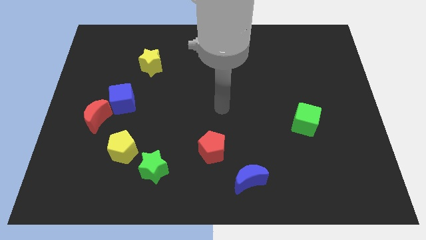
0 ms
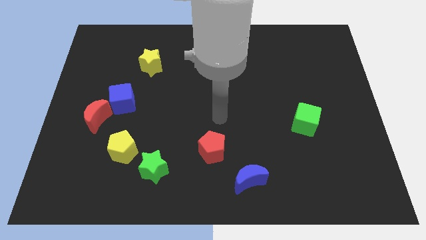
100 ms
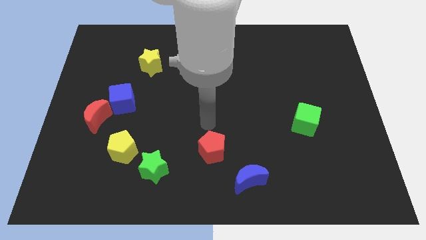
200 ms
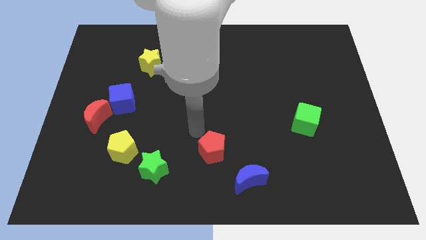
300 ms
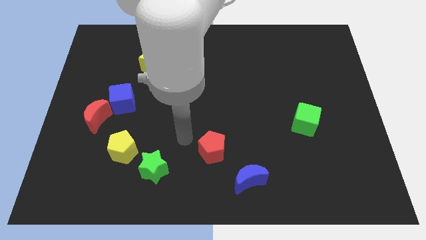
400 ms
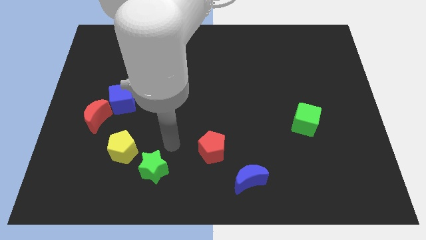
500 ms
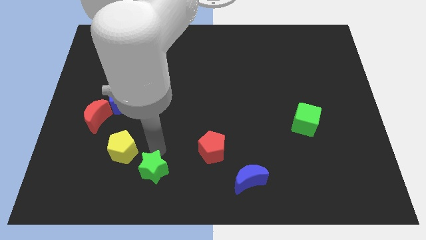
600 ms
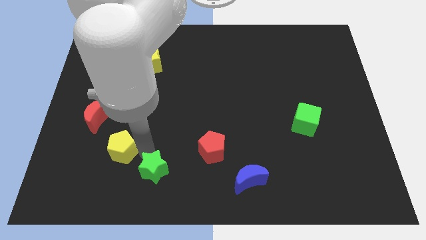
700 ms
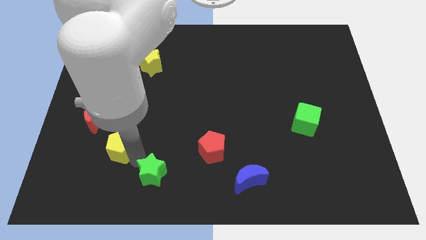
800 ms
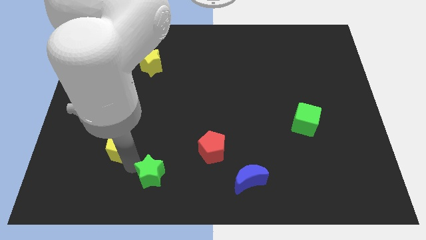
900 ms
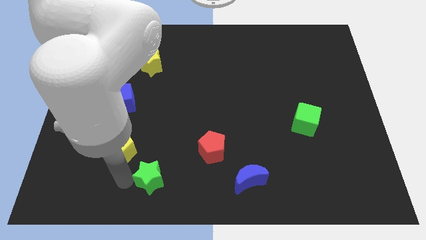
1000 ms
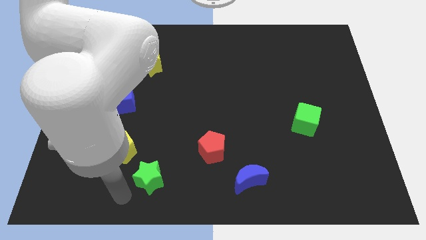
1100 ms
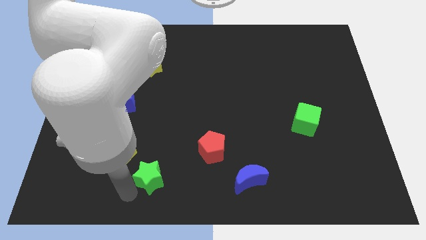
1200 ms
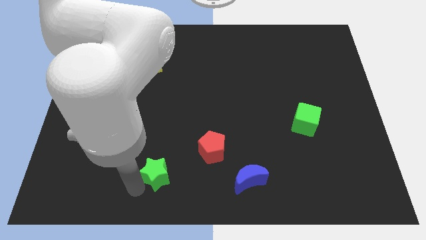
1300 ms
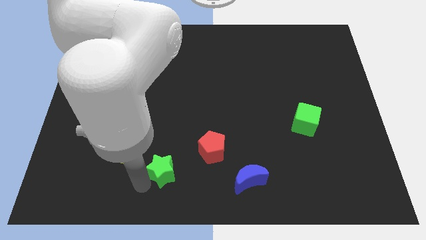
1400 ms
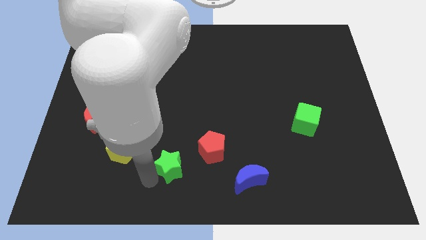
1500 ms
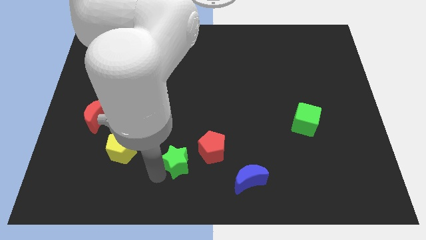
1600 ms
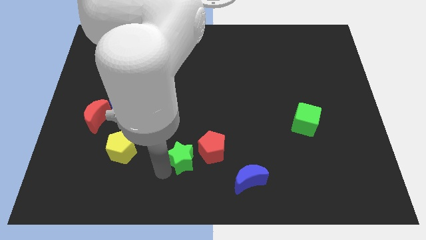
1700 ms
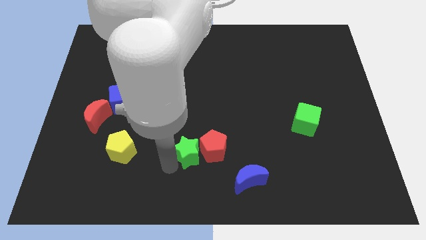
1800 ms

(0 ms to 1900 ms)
move the green star next to the red pentagon

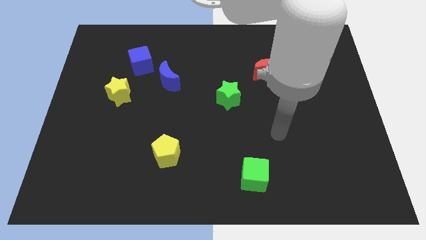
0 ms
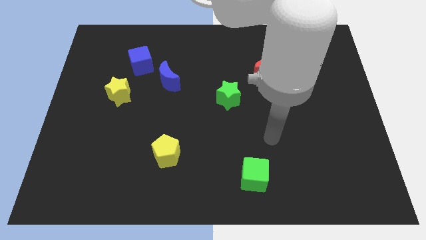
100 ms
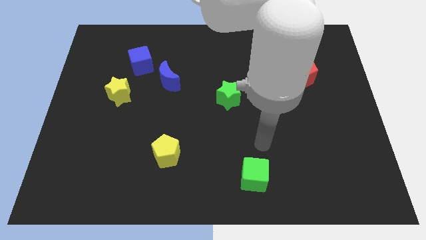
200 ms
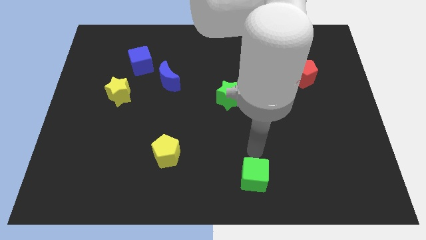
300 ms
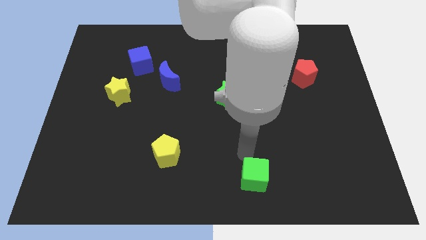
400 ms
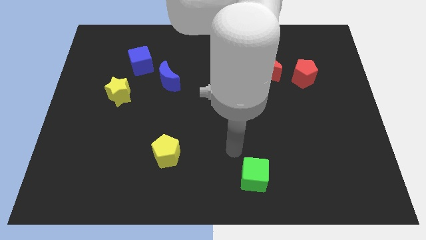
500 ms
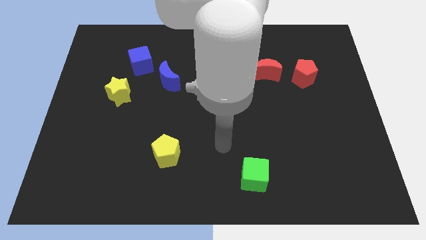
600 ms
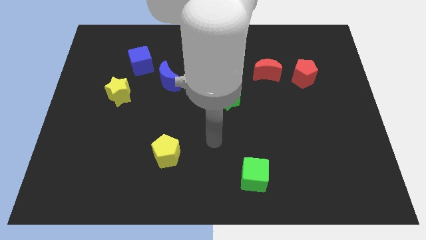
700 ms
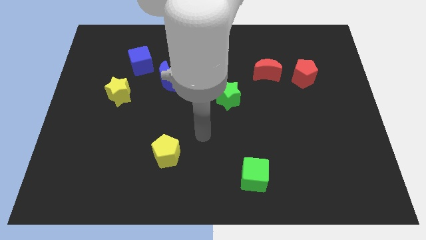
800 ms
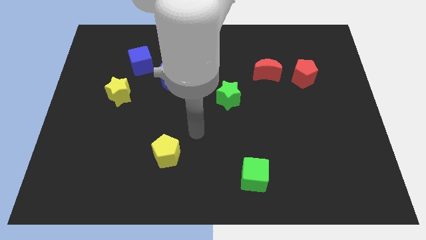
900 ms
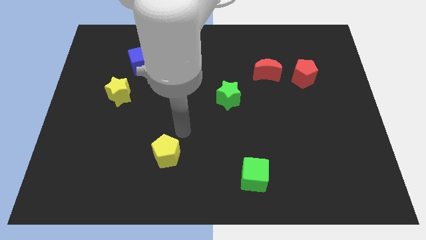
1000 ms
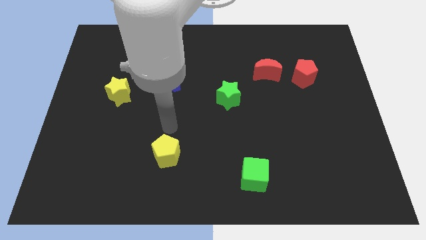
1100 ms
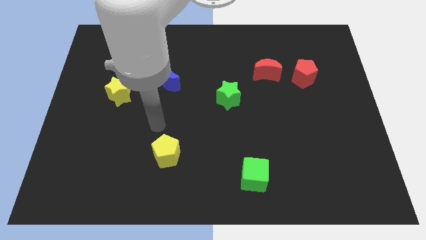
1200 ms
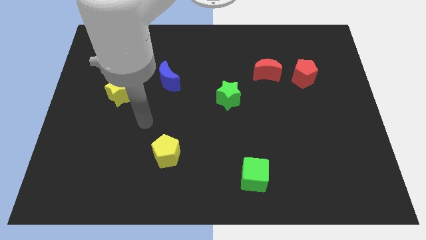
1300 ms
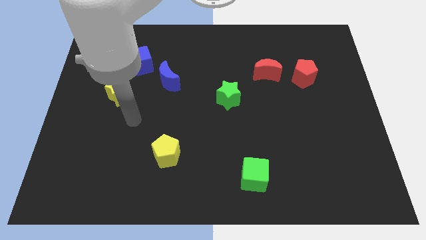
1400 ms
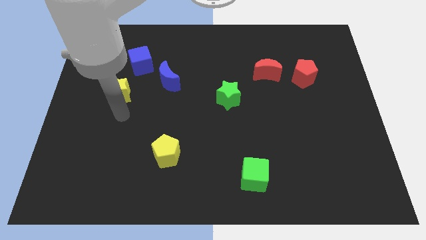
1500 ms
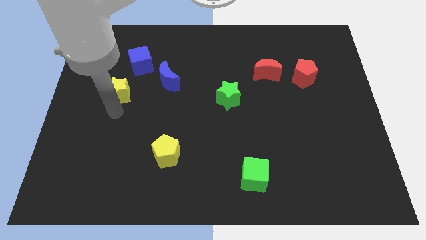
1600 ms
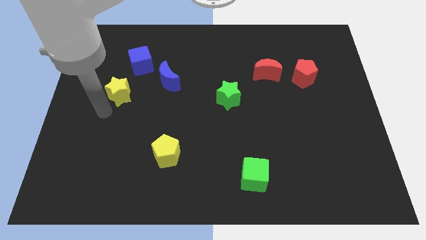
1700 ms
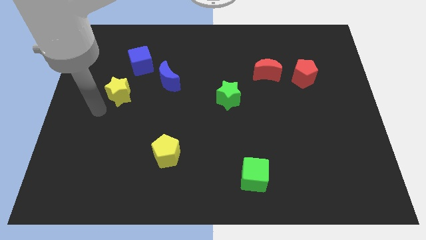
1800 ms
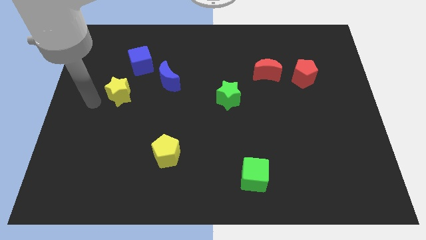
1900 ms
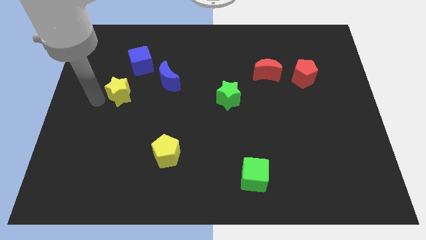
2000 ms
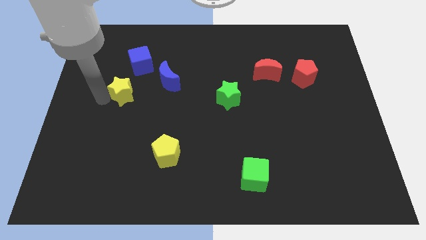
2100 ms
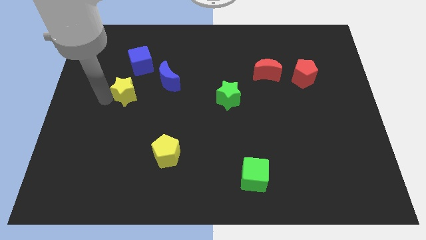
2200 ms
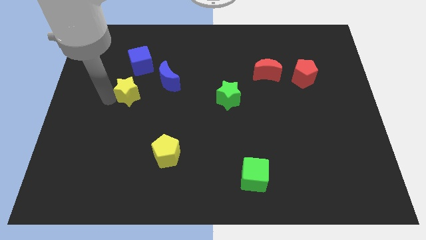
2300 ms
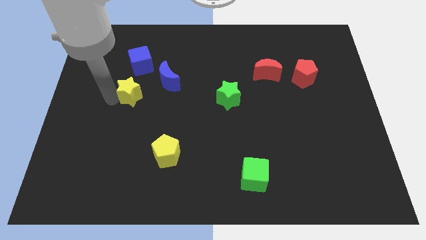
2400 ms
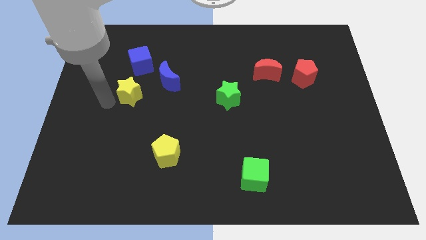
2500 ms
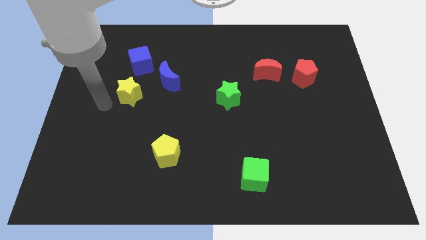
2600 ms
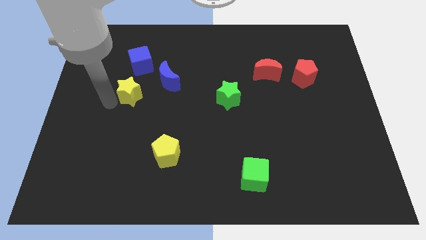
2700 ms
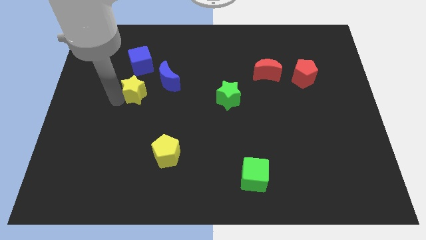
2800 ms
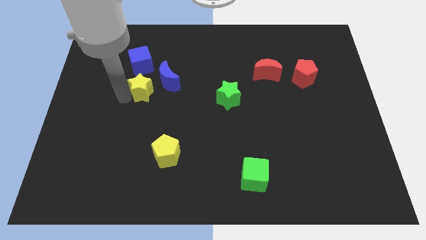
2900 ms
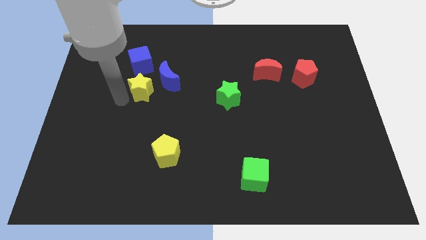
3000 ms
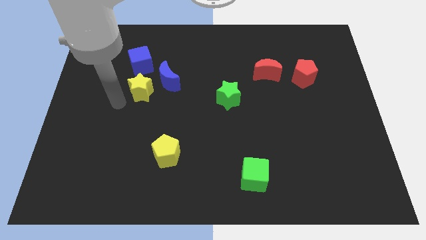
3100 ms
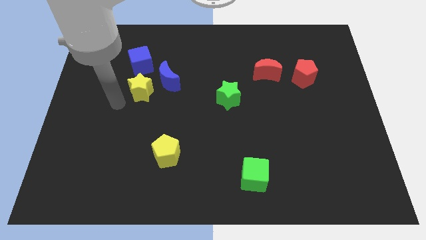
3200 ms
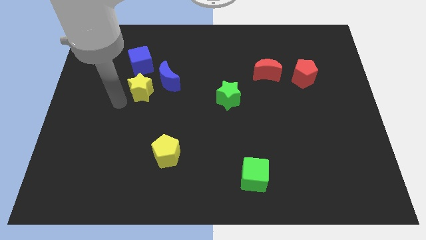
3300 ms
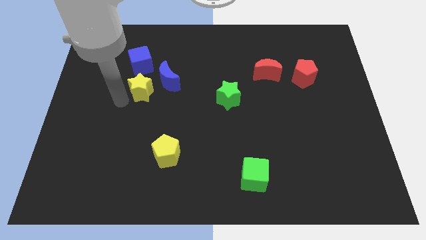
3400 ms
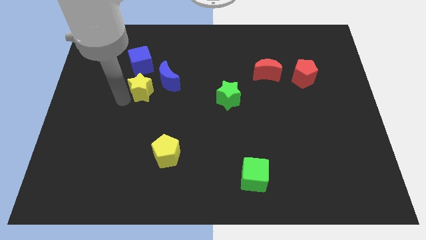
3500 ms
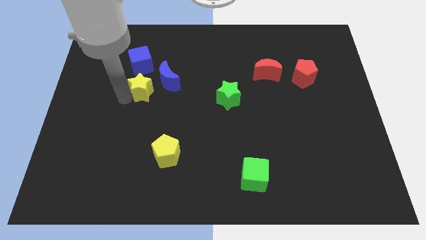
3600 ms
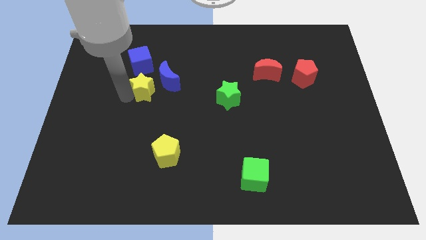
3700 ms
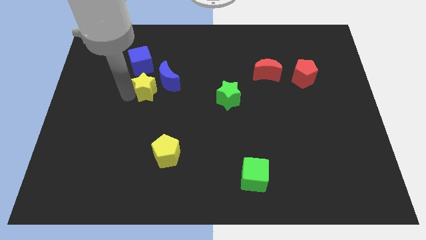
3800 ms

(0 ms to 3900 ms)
put the yellow star towards the blue moon

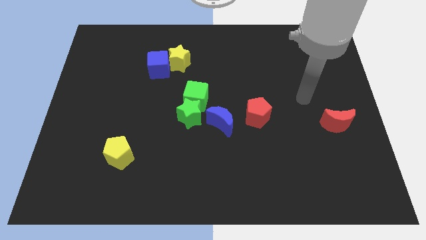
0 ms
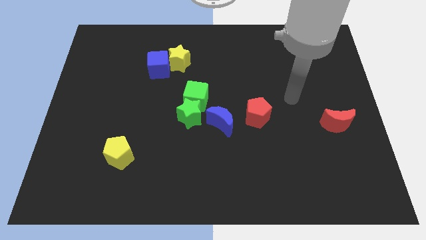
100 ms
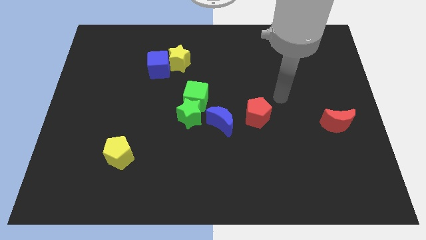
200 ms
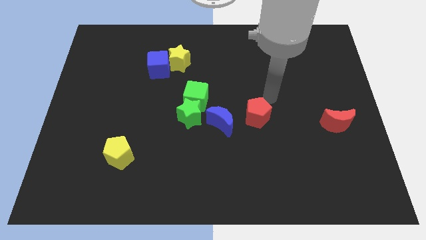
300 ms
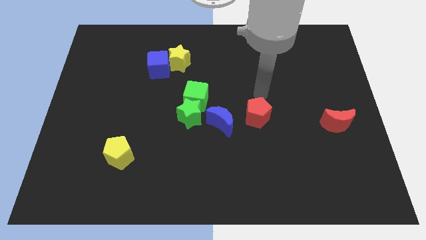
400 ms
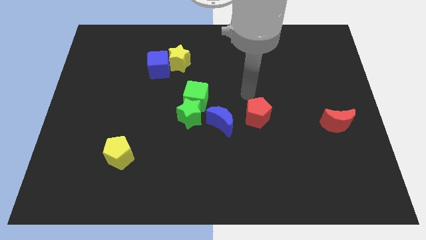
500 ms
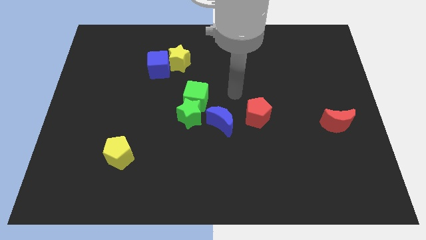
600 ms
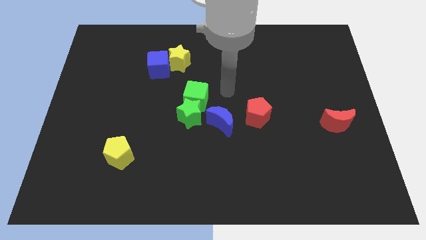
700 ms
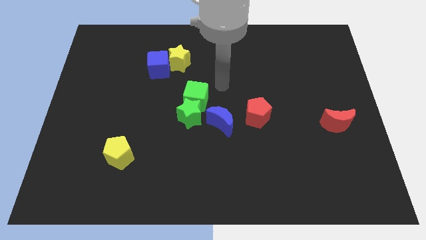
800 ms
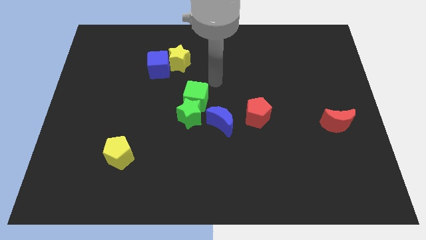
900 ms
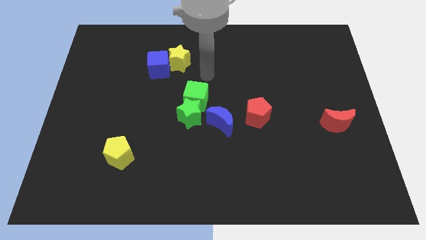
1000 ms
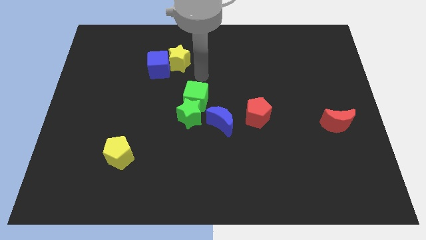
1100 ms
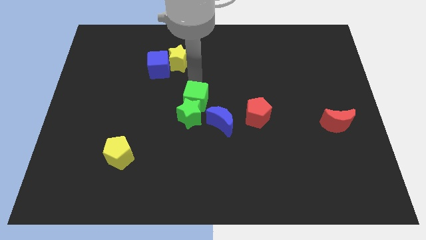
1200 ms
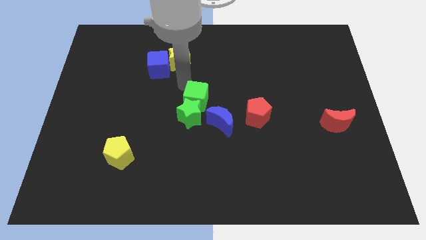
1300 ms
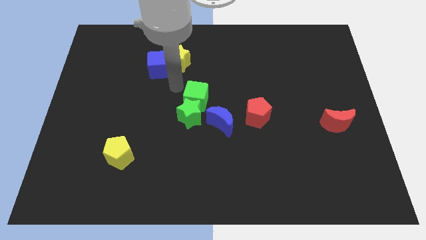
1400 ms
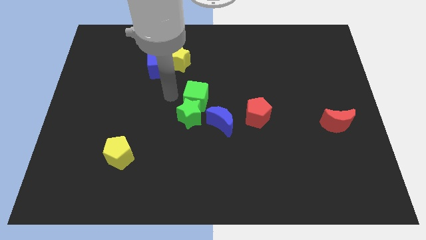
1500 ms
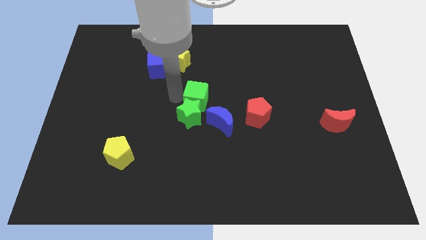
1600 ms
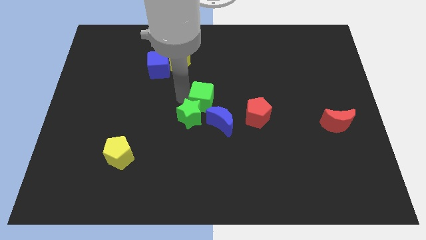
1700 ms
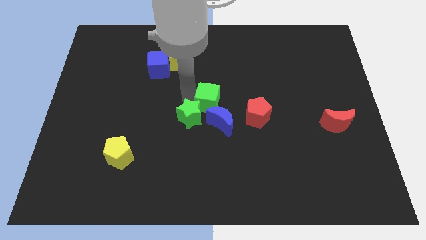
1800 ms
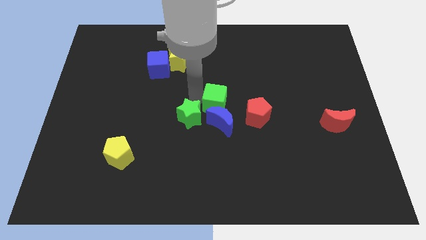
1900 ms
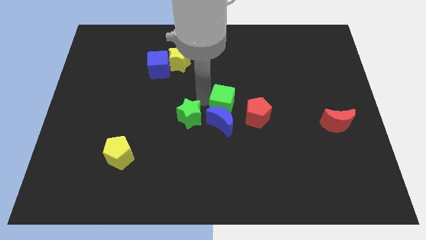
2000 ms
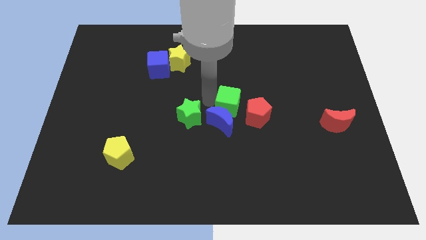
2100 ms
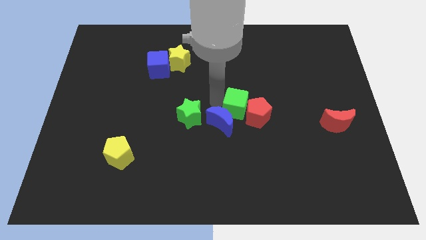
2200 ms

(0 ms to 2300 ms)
put the green cube to the red pentagon

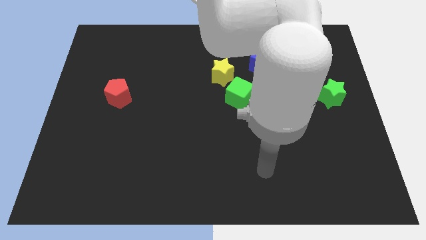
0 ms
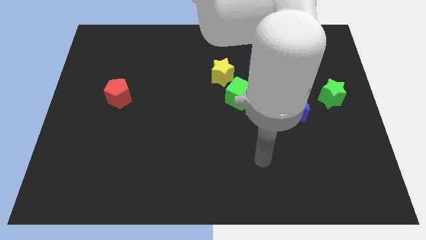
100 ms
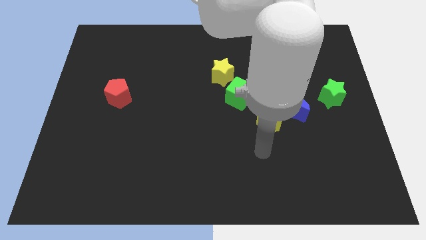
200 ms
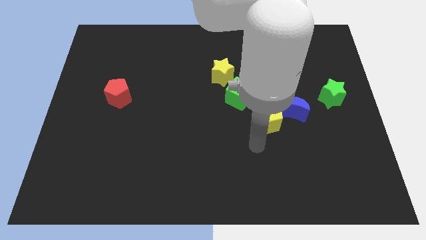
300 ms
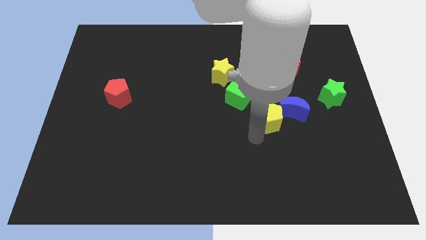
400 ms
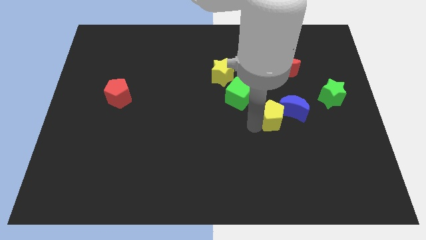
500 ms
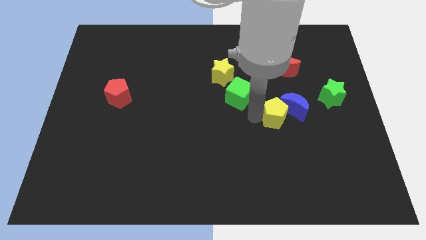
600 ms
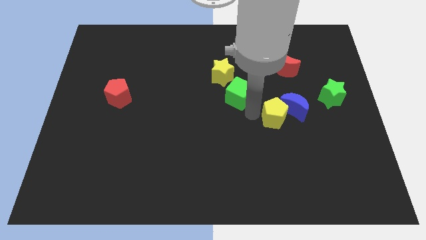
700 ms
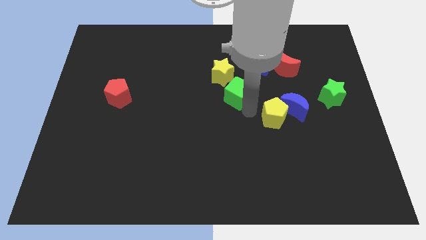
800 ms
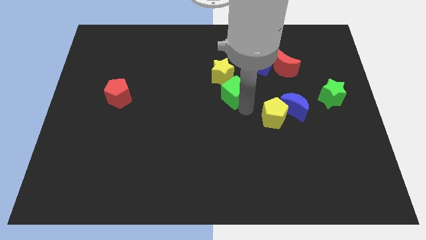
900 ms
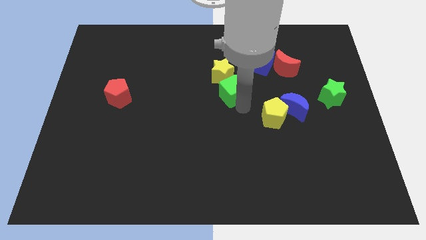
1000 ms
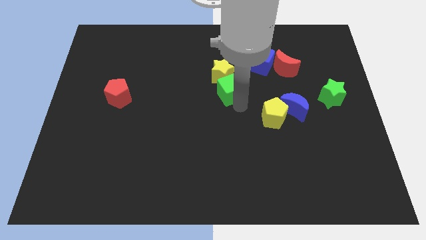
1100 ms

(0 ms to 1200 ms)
push the green cube next to the yellow star
